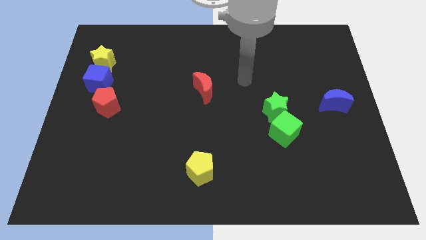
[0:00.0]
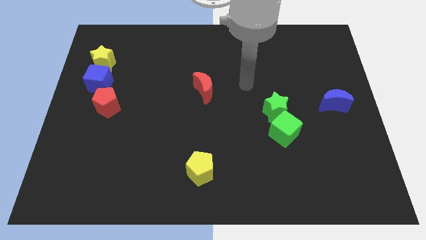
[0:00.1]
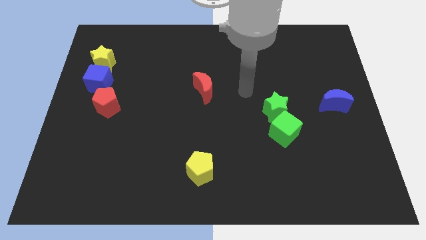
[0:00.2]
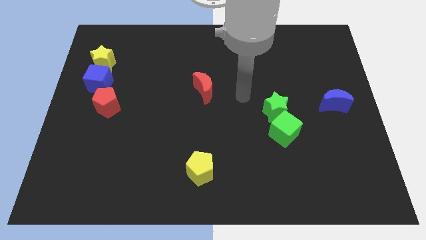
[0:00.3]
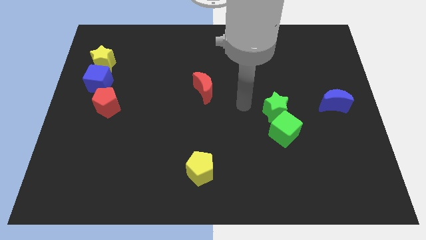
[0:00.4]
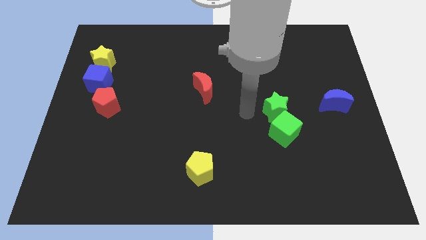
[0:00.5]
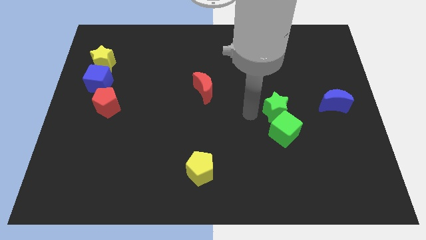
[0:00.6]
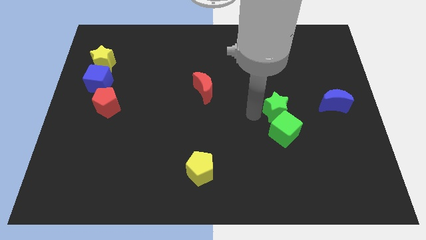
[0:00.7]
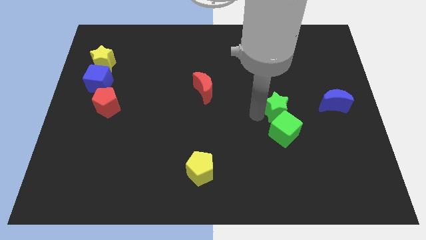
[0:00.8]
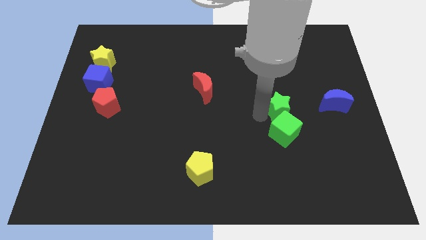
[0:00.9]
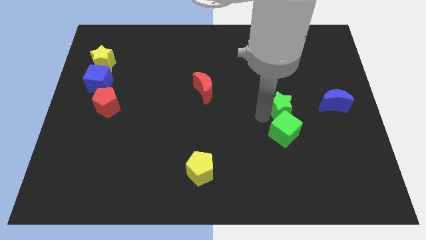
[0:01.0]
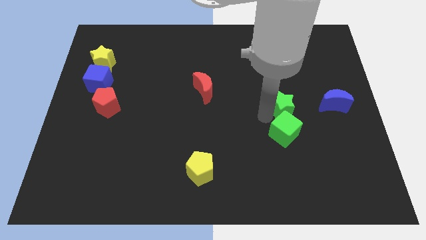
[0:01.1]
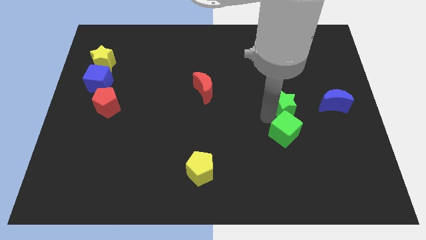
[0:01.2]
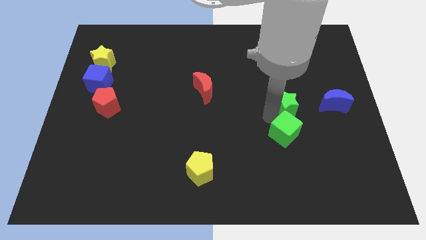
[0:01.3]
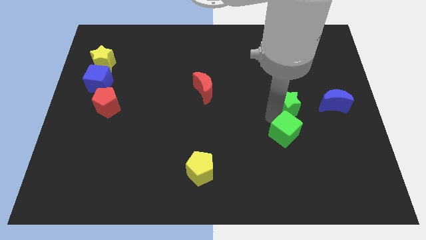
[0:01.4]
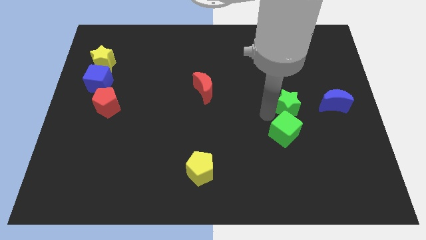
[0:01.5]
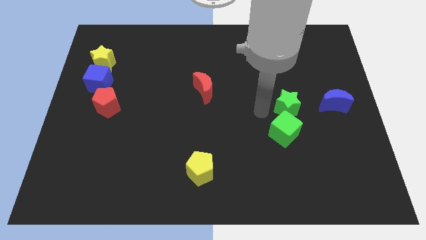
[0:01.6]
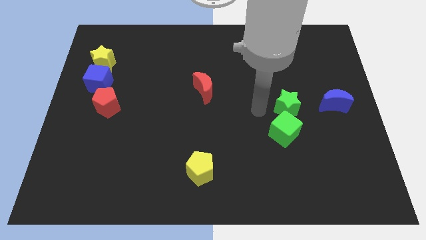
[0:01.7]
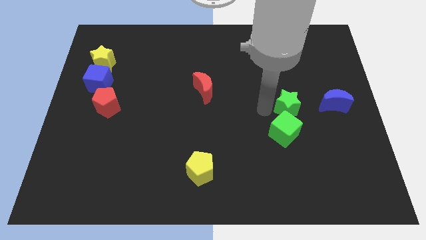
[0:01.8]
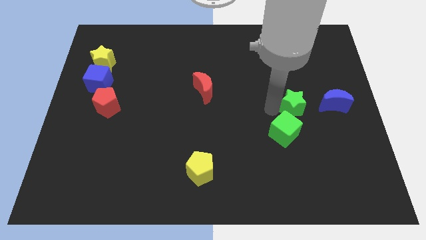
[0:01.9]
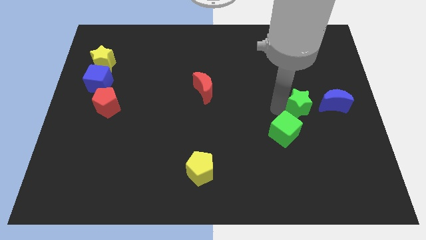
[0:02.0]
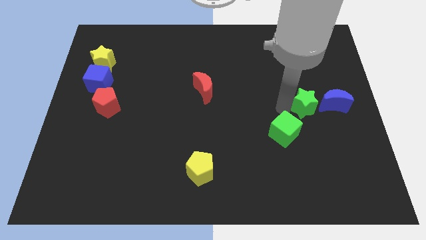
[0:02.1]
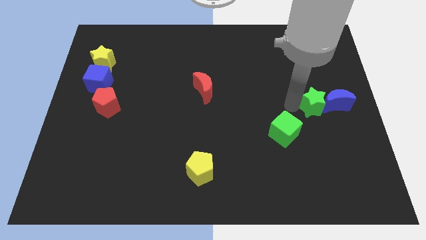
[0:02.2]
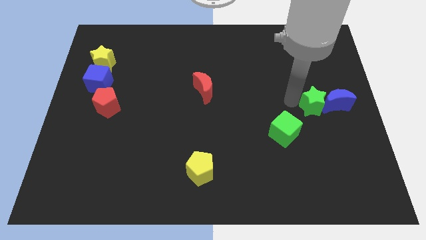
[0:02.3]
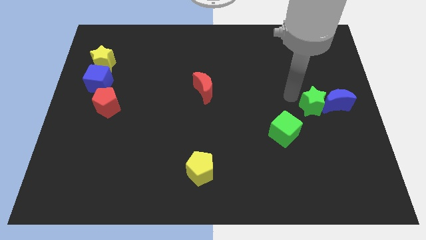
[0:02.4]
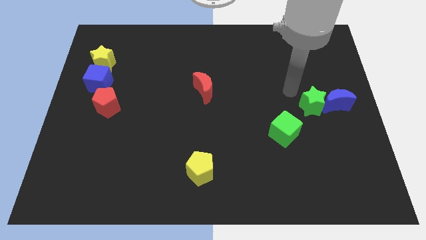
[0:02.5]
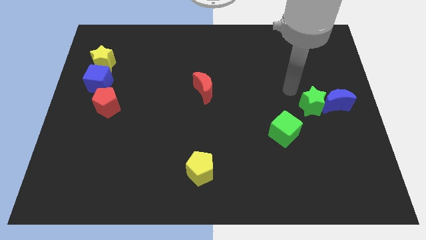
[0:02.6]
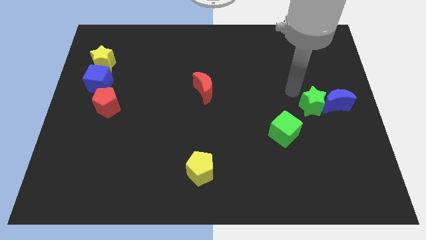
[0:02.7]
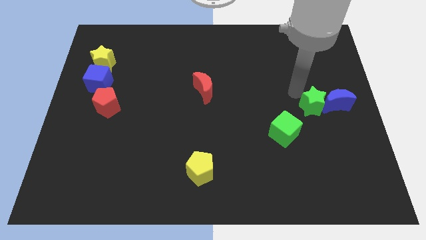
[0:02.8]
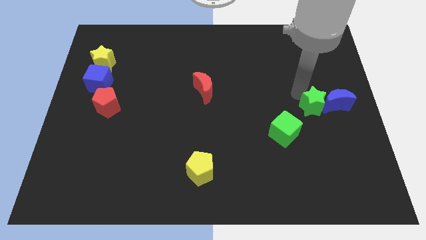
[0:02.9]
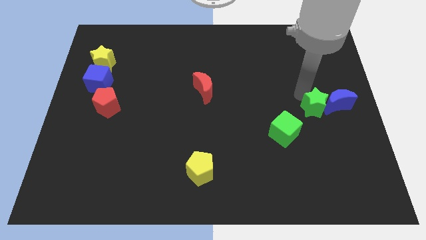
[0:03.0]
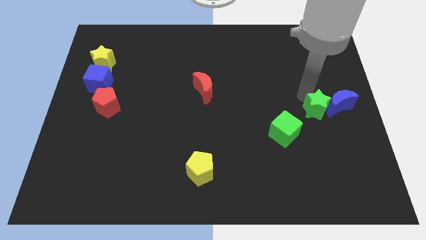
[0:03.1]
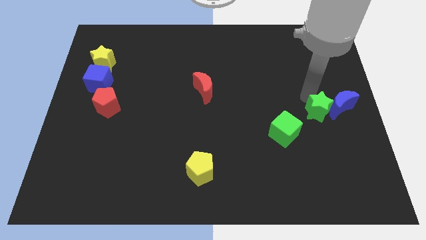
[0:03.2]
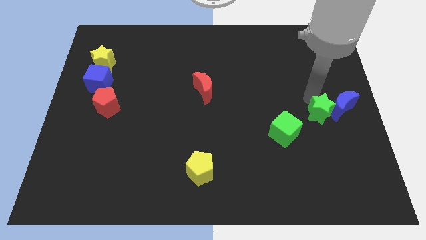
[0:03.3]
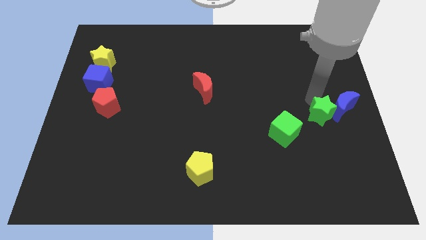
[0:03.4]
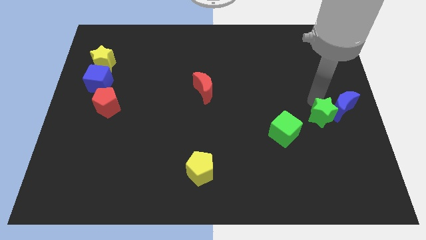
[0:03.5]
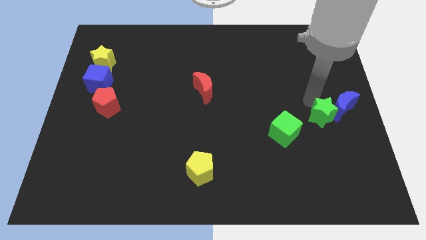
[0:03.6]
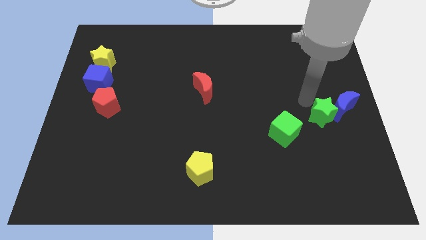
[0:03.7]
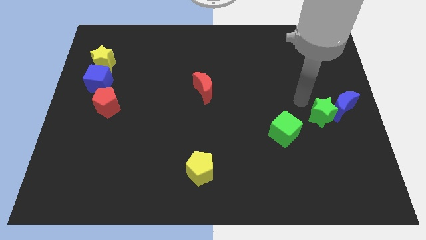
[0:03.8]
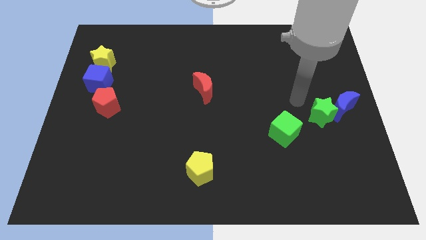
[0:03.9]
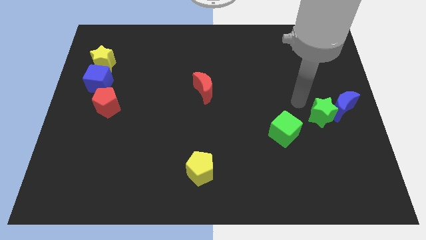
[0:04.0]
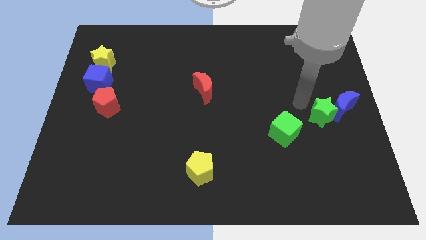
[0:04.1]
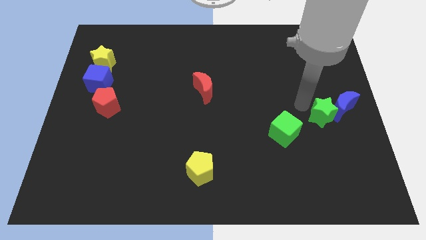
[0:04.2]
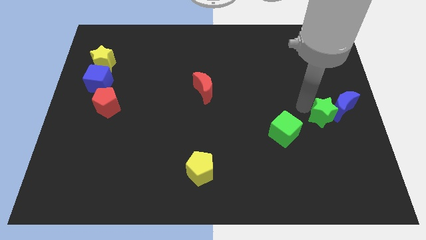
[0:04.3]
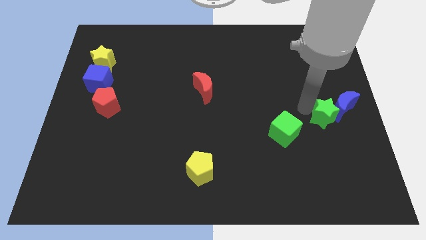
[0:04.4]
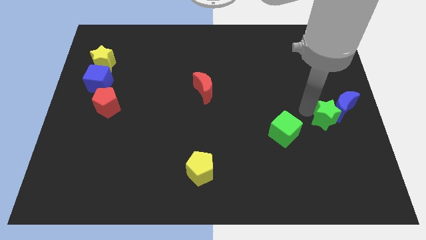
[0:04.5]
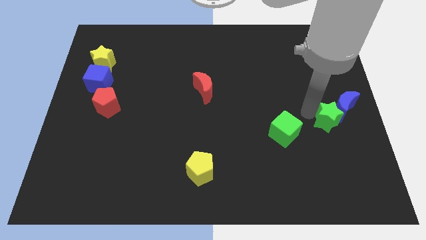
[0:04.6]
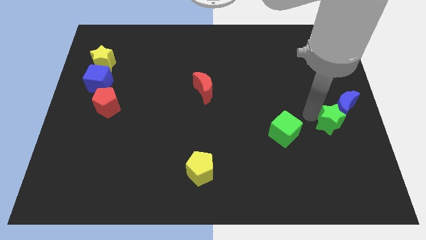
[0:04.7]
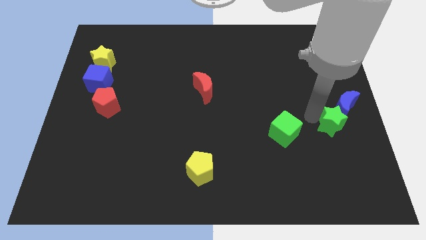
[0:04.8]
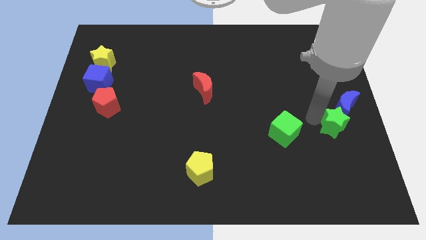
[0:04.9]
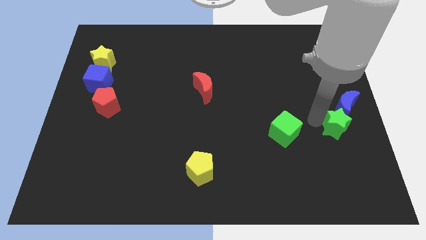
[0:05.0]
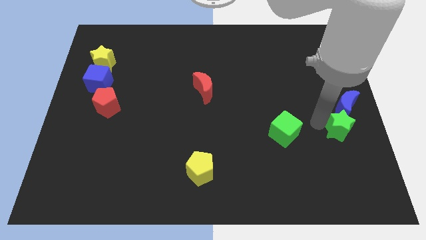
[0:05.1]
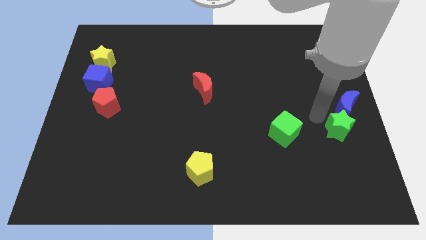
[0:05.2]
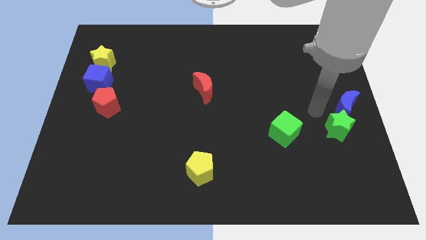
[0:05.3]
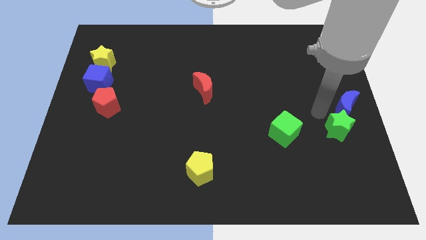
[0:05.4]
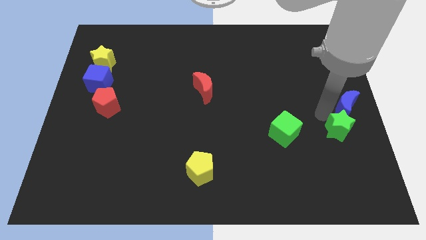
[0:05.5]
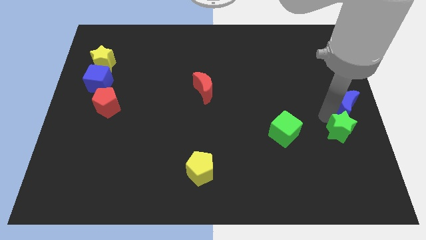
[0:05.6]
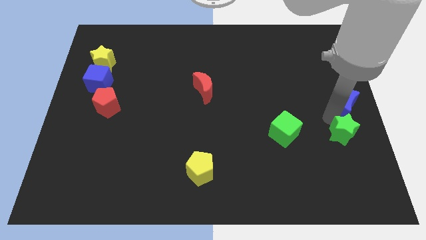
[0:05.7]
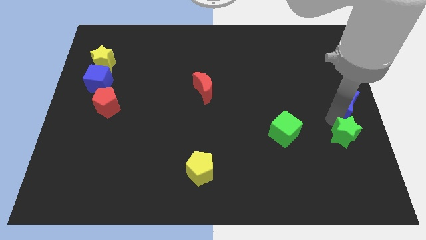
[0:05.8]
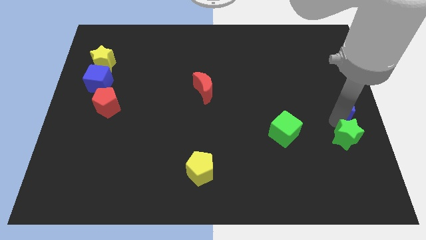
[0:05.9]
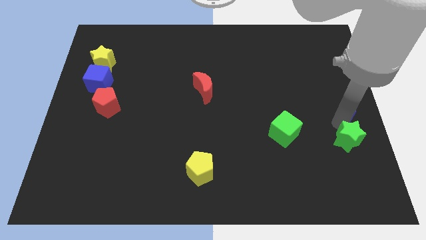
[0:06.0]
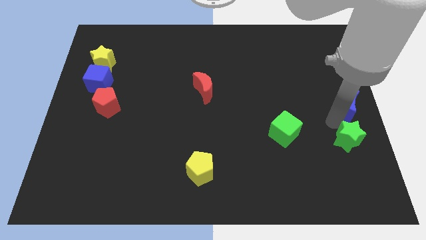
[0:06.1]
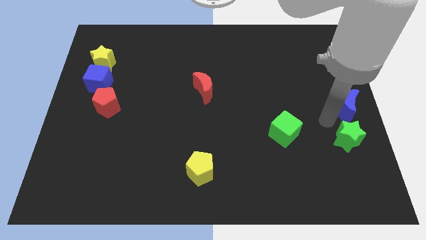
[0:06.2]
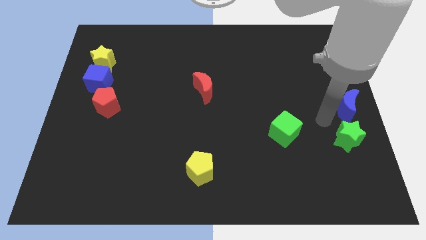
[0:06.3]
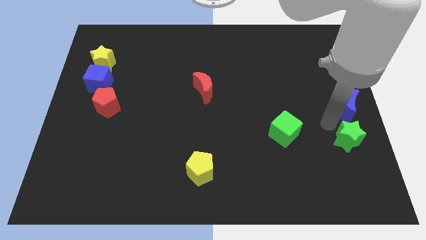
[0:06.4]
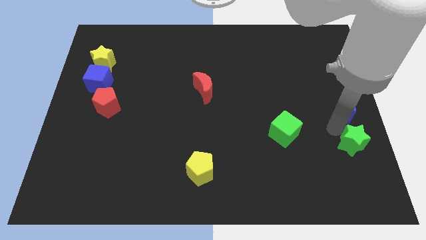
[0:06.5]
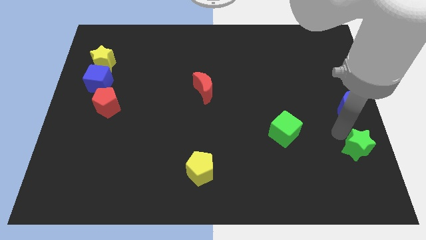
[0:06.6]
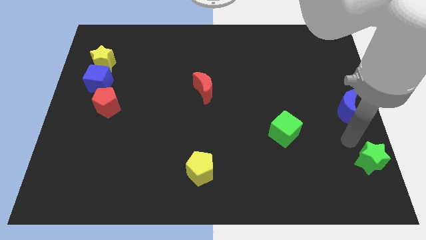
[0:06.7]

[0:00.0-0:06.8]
slide the green star to the bottom right
